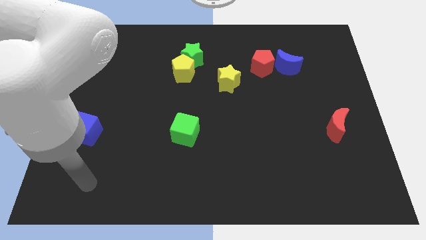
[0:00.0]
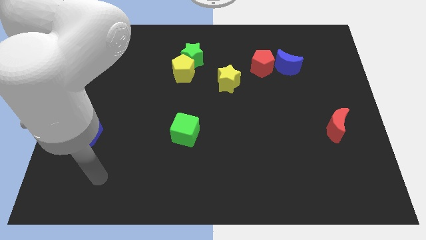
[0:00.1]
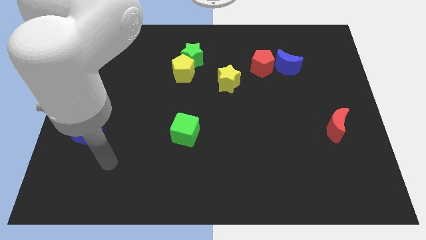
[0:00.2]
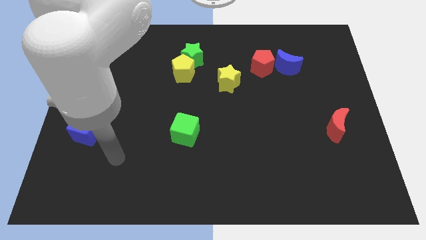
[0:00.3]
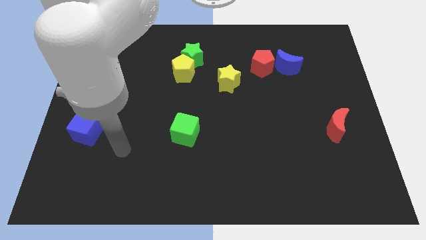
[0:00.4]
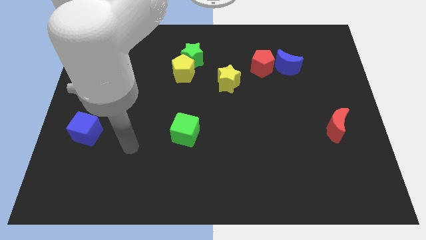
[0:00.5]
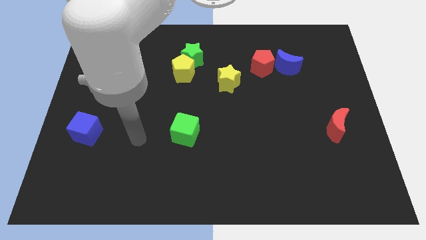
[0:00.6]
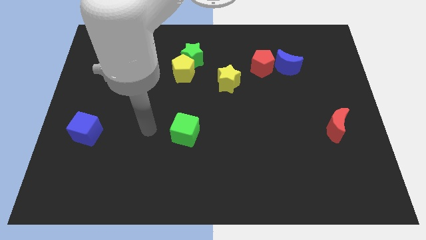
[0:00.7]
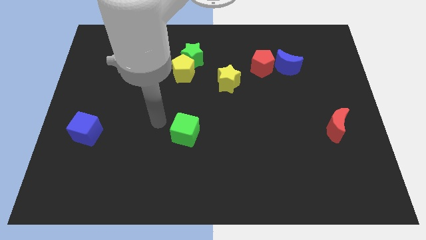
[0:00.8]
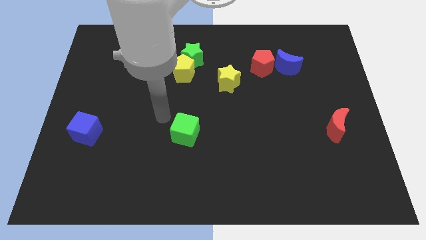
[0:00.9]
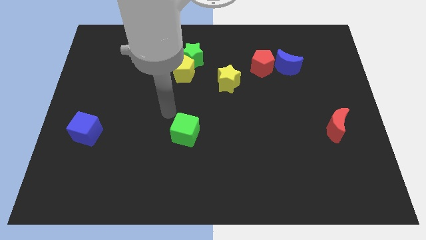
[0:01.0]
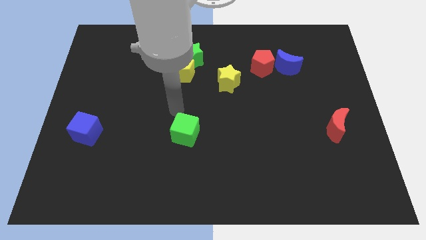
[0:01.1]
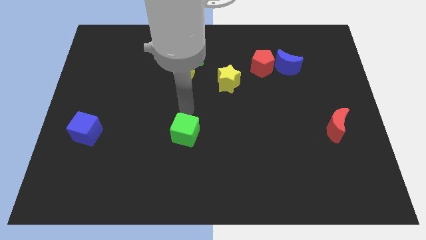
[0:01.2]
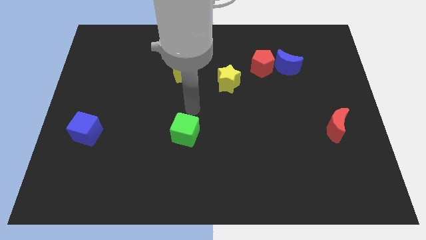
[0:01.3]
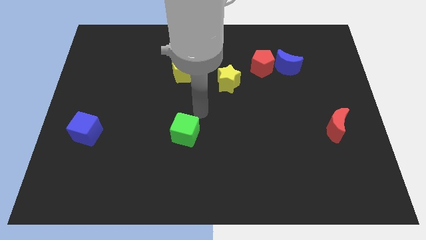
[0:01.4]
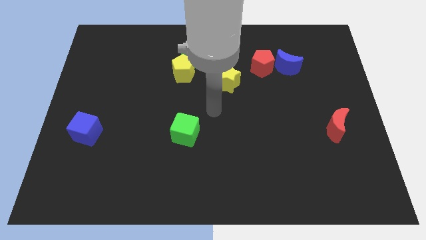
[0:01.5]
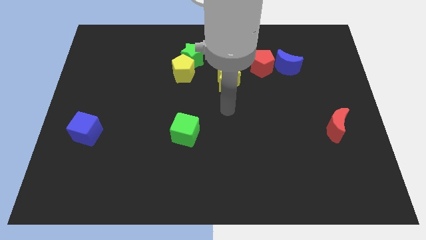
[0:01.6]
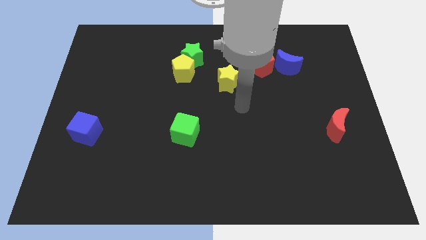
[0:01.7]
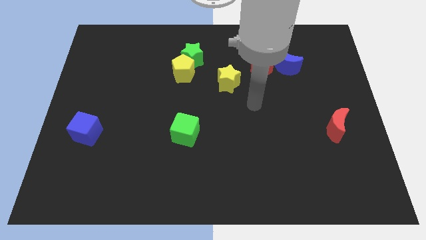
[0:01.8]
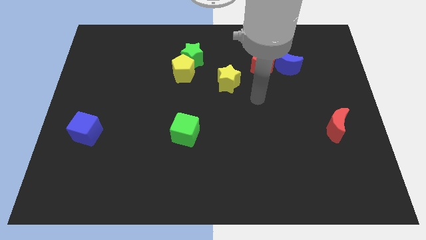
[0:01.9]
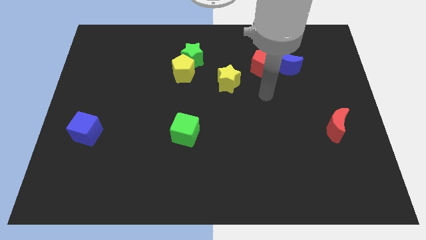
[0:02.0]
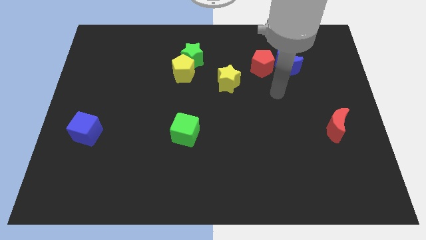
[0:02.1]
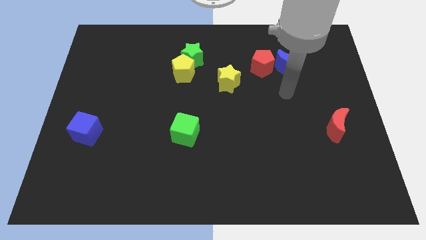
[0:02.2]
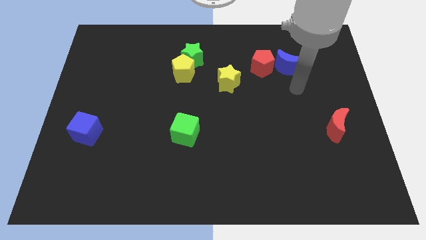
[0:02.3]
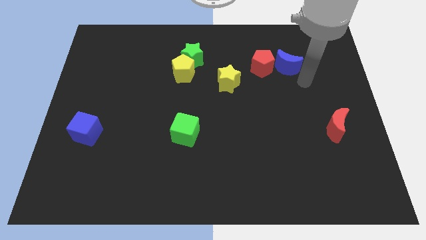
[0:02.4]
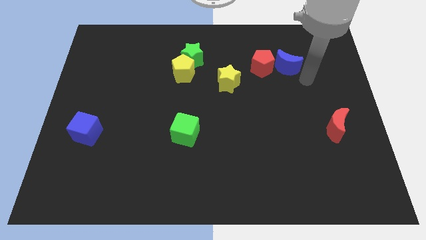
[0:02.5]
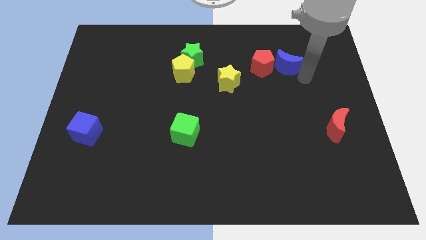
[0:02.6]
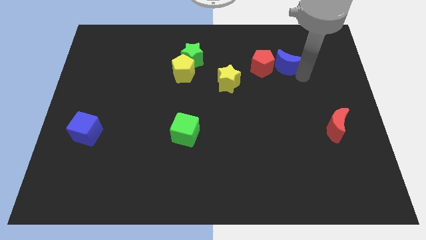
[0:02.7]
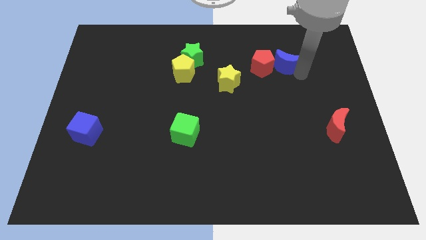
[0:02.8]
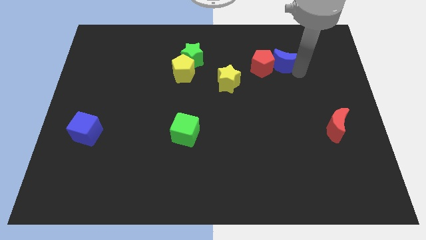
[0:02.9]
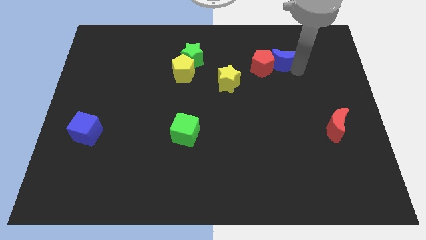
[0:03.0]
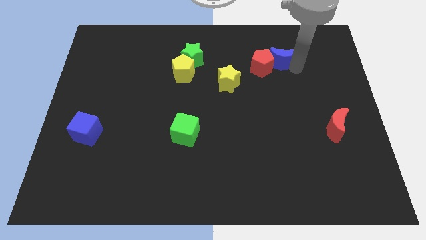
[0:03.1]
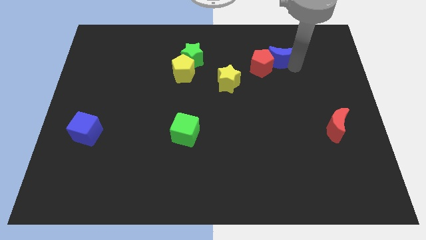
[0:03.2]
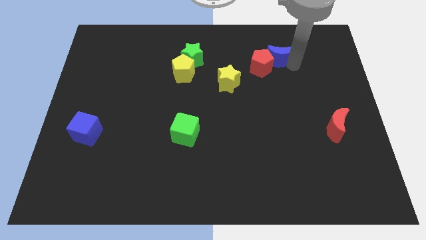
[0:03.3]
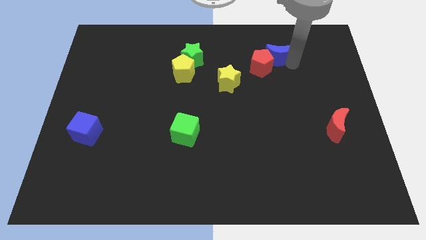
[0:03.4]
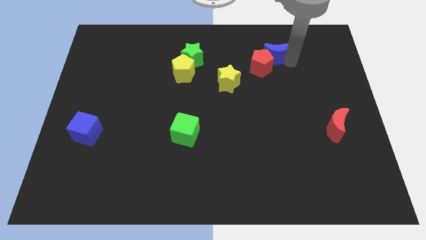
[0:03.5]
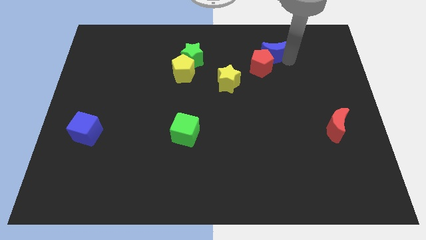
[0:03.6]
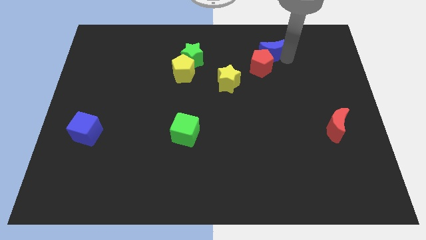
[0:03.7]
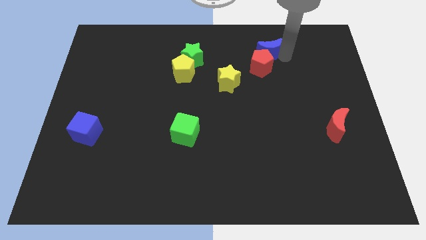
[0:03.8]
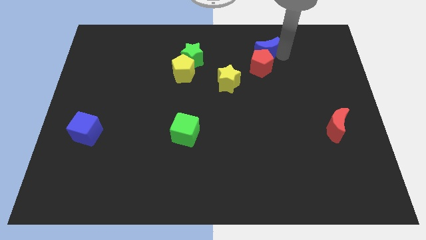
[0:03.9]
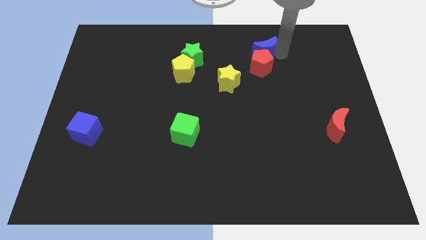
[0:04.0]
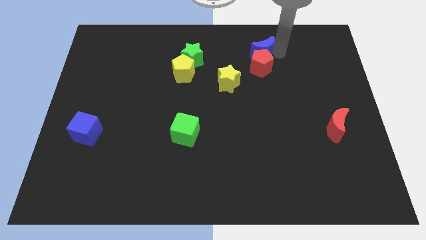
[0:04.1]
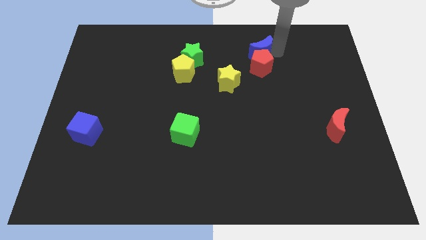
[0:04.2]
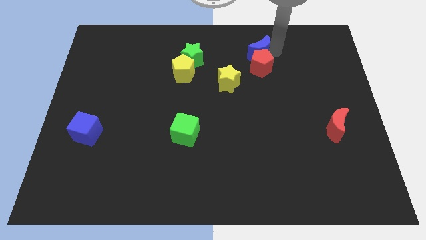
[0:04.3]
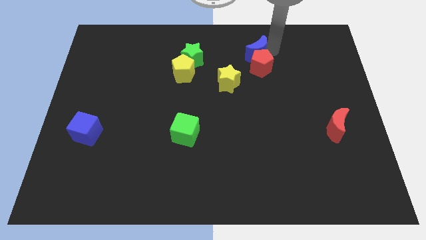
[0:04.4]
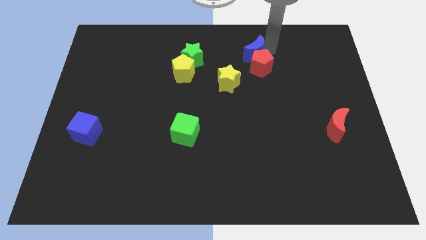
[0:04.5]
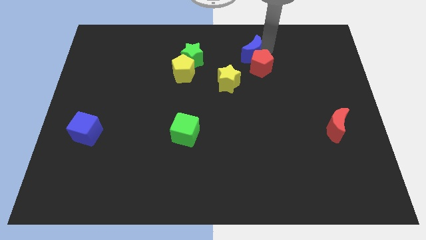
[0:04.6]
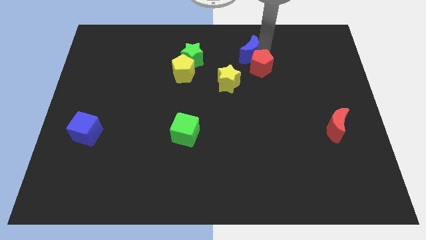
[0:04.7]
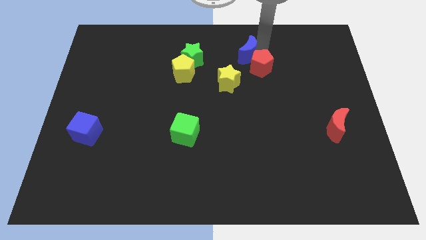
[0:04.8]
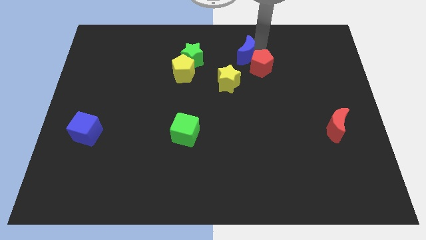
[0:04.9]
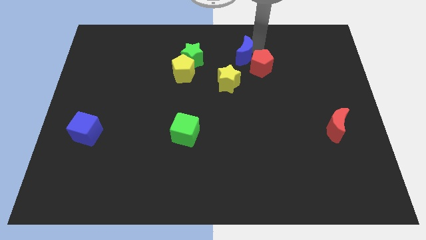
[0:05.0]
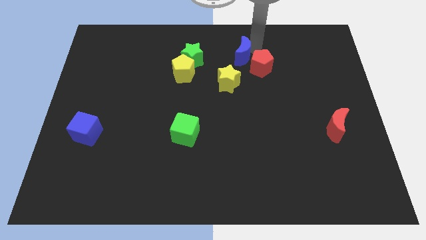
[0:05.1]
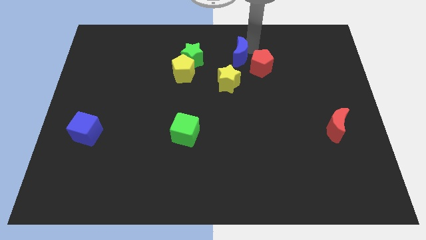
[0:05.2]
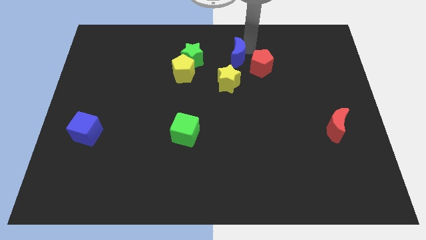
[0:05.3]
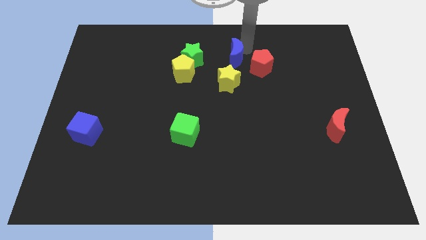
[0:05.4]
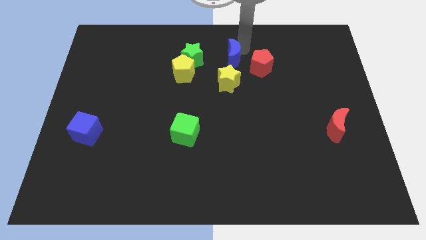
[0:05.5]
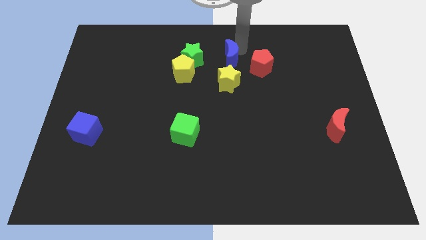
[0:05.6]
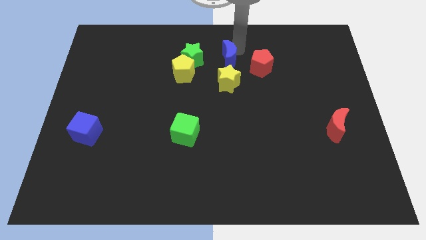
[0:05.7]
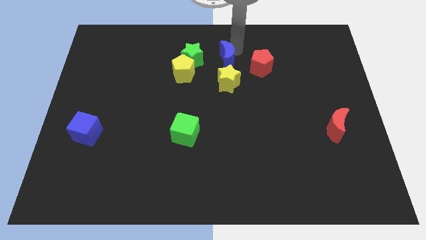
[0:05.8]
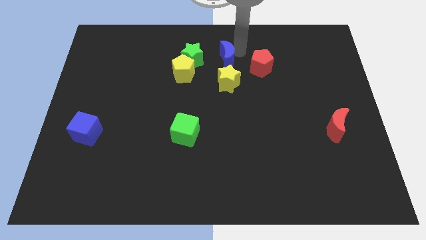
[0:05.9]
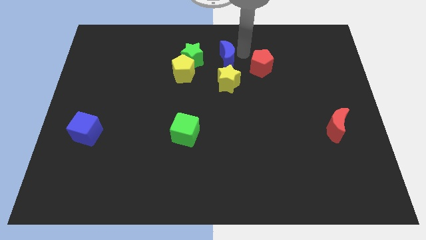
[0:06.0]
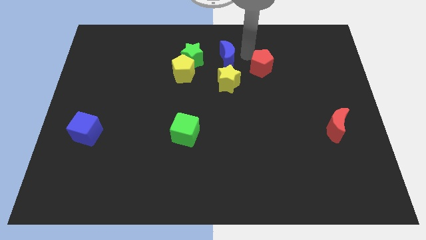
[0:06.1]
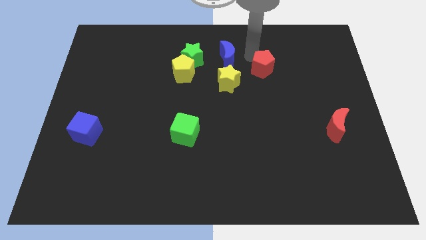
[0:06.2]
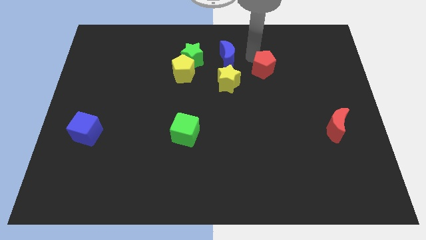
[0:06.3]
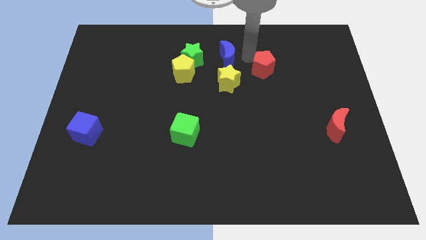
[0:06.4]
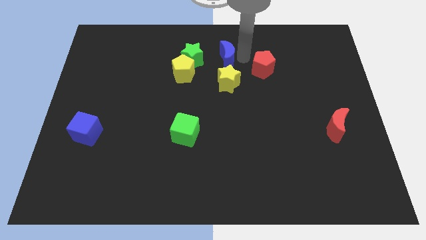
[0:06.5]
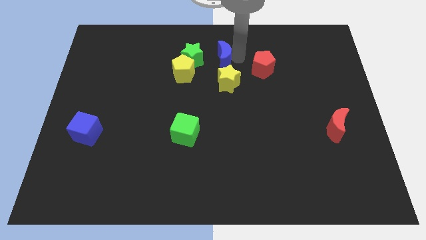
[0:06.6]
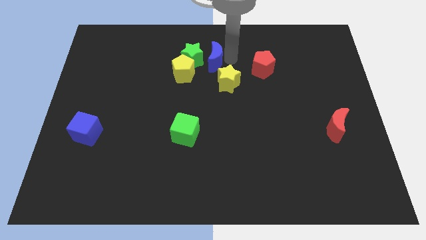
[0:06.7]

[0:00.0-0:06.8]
slide the blue moon to the green star
